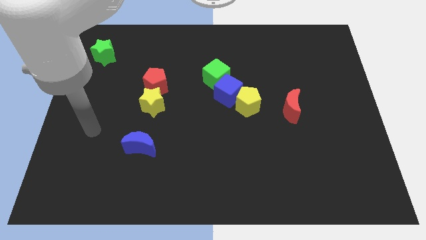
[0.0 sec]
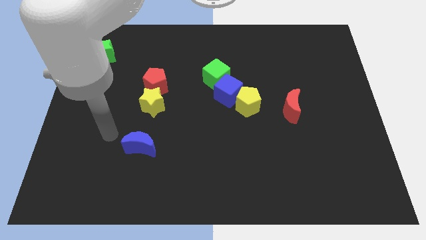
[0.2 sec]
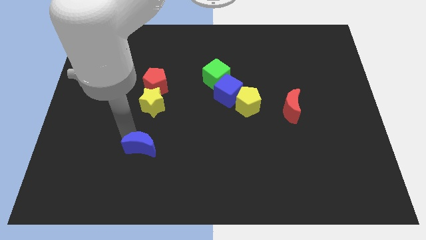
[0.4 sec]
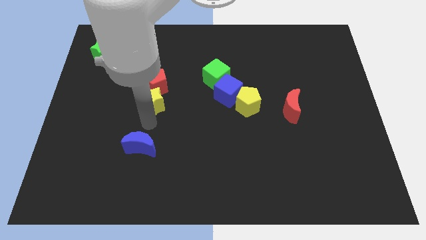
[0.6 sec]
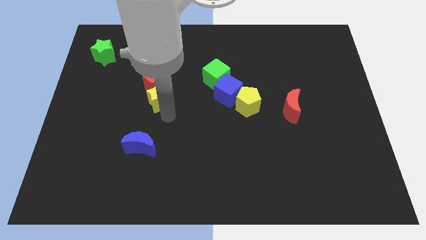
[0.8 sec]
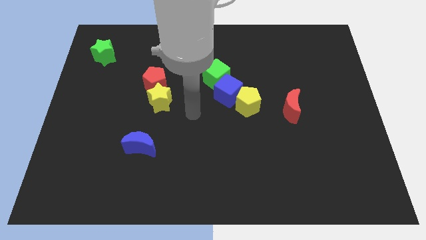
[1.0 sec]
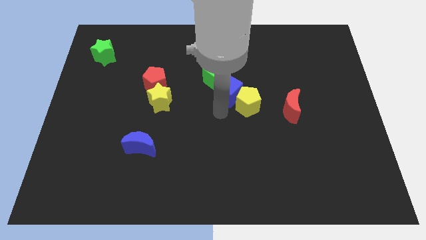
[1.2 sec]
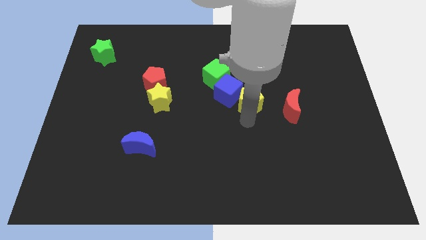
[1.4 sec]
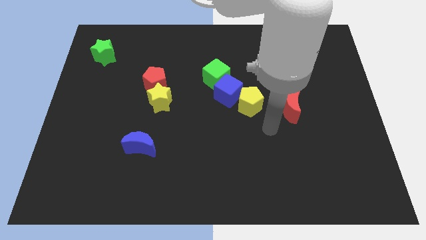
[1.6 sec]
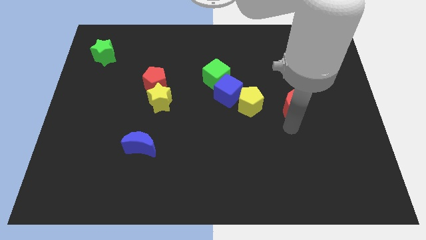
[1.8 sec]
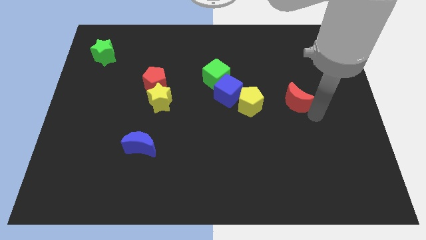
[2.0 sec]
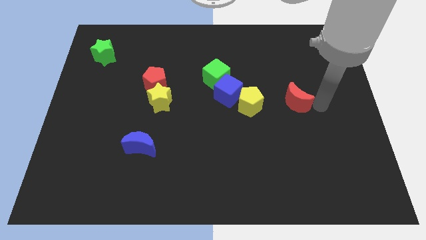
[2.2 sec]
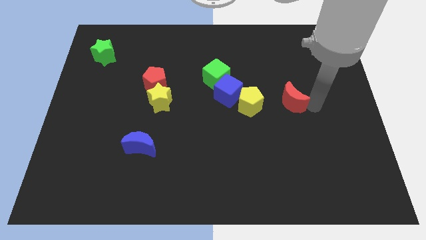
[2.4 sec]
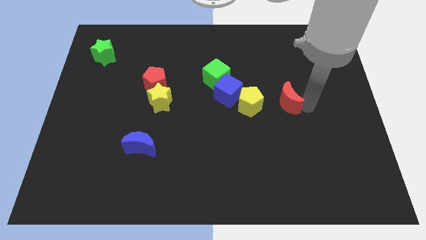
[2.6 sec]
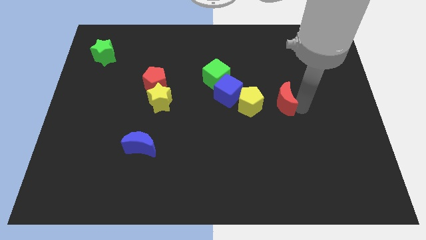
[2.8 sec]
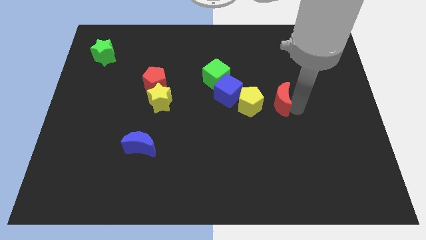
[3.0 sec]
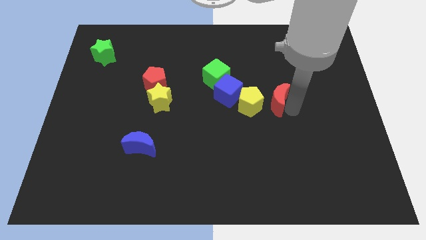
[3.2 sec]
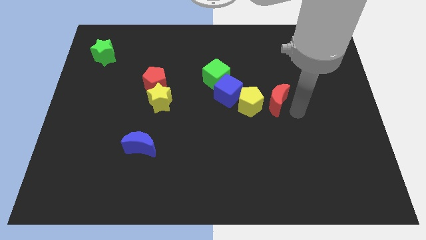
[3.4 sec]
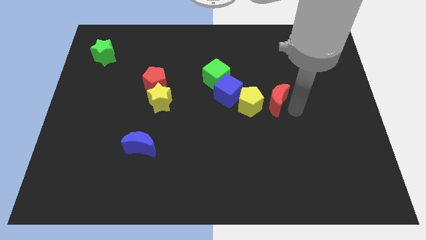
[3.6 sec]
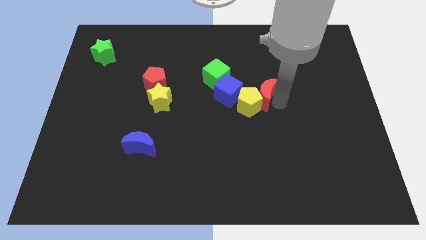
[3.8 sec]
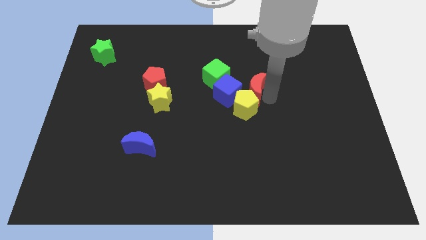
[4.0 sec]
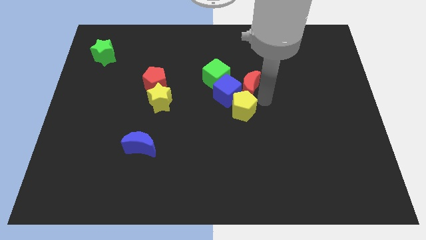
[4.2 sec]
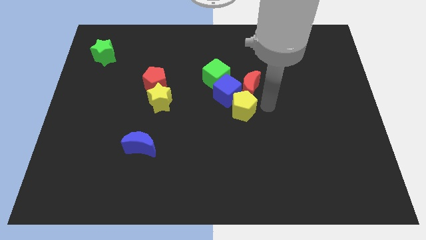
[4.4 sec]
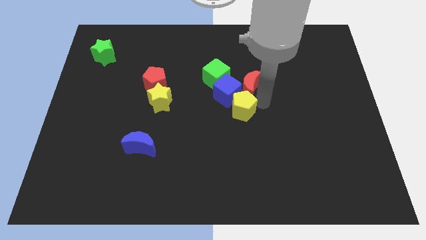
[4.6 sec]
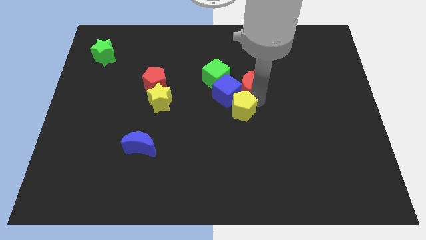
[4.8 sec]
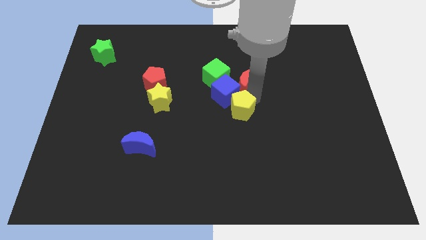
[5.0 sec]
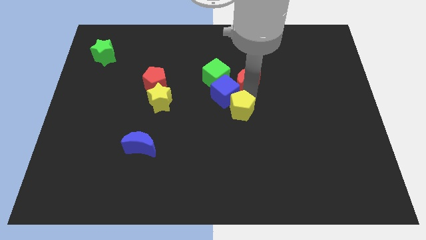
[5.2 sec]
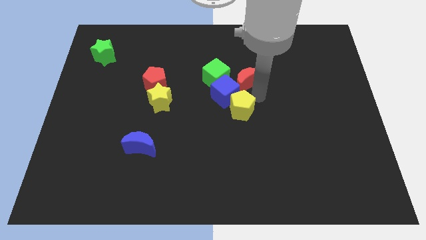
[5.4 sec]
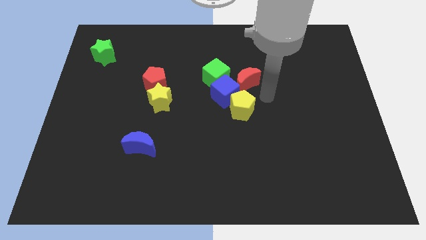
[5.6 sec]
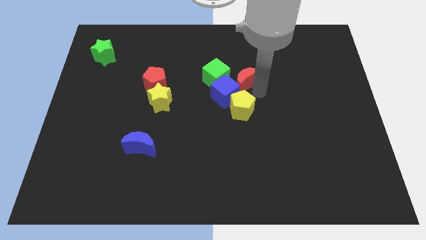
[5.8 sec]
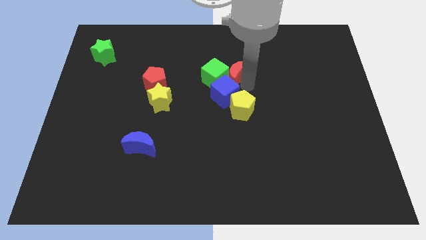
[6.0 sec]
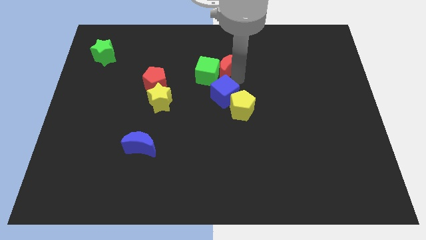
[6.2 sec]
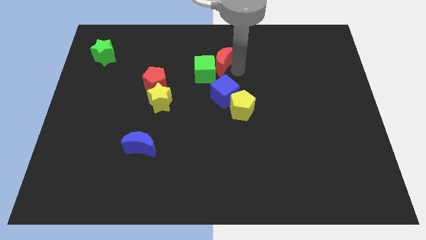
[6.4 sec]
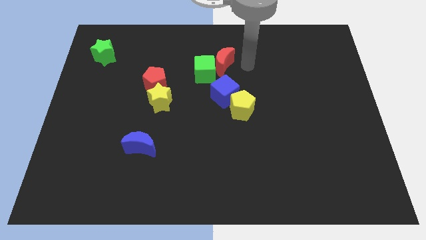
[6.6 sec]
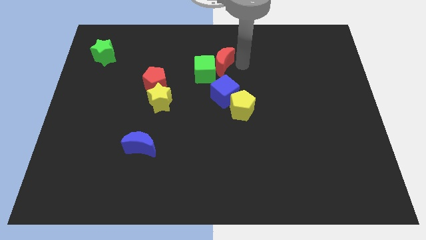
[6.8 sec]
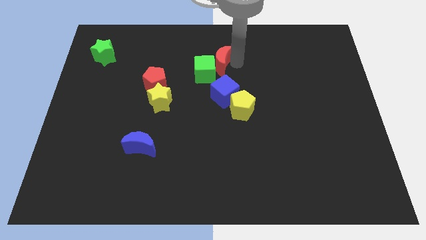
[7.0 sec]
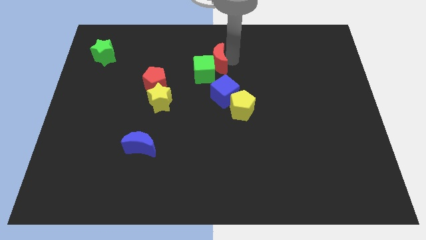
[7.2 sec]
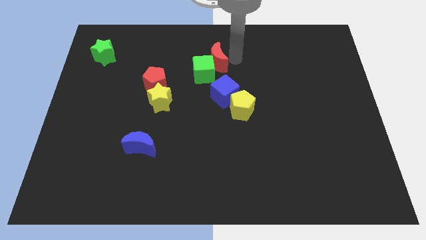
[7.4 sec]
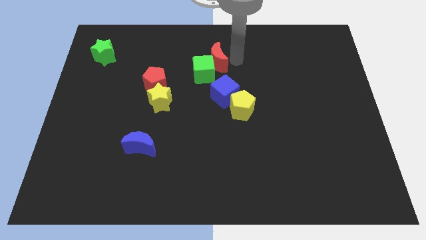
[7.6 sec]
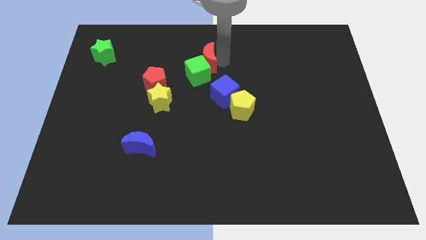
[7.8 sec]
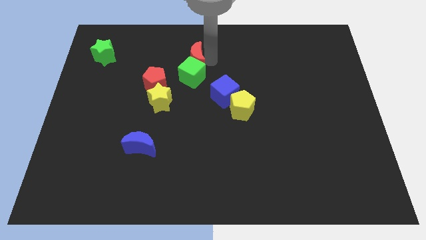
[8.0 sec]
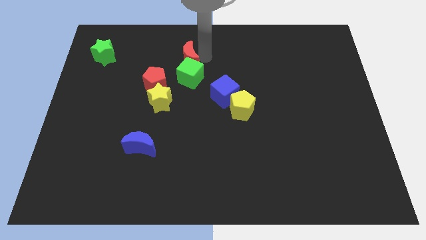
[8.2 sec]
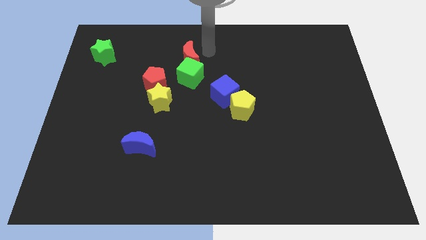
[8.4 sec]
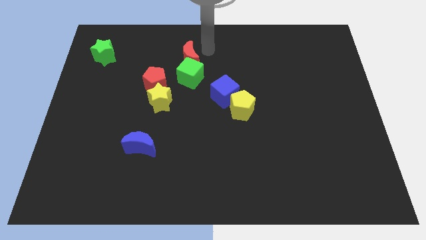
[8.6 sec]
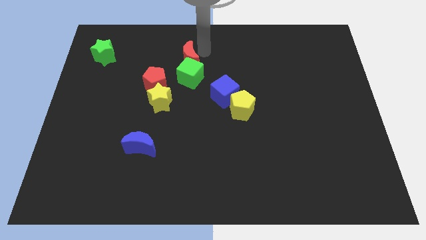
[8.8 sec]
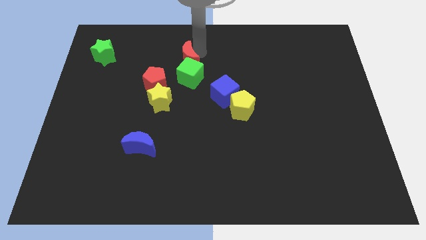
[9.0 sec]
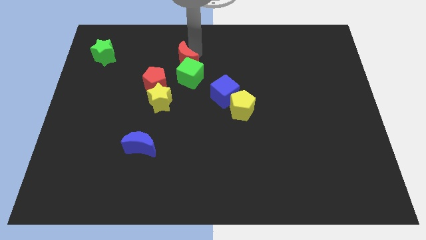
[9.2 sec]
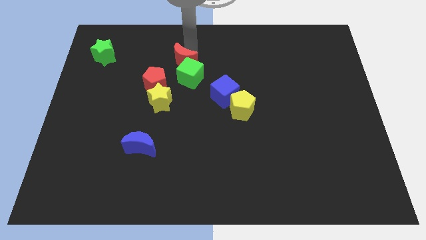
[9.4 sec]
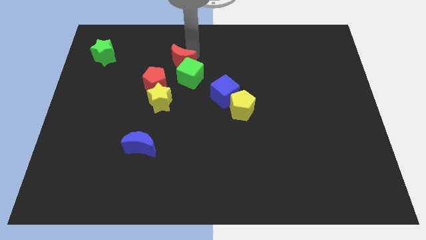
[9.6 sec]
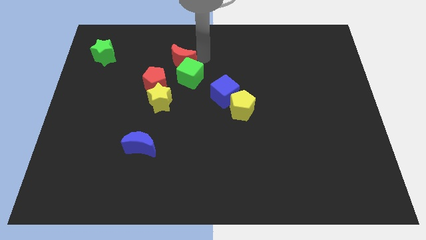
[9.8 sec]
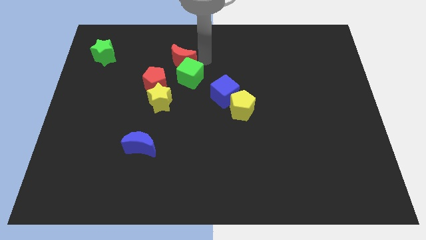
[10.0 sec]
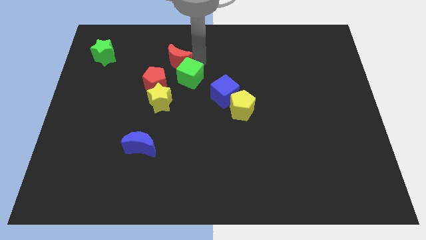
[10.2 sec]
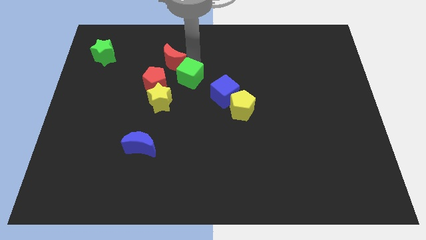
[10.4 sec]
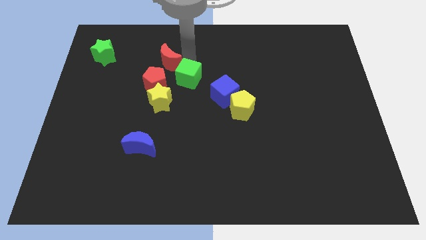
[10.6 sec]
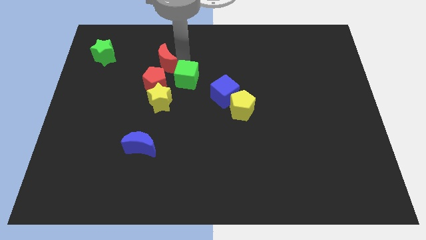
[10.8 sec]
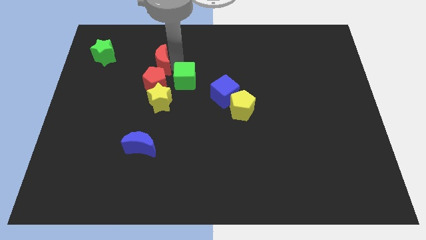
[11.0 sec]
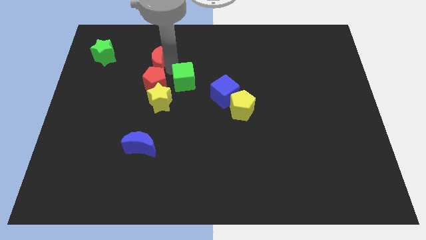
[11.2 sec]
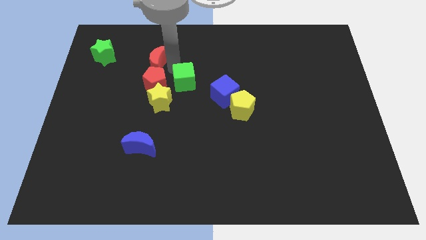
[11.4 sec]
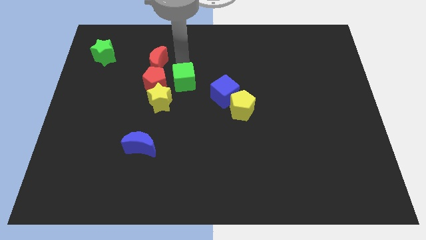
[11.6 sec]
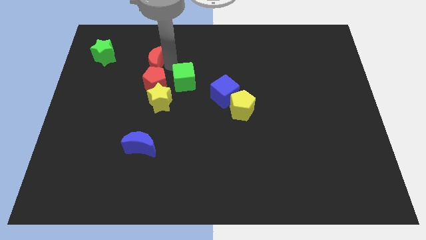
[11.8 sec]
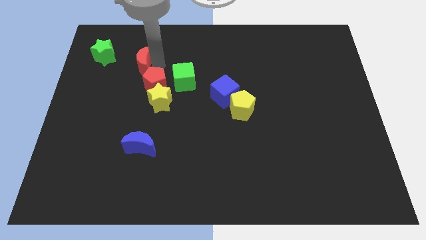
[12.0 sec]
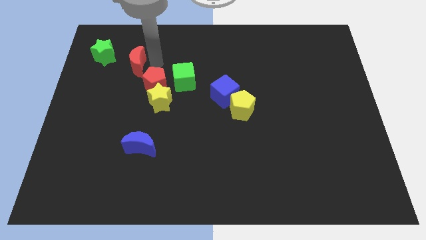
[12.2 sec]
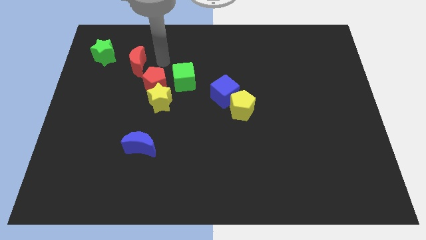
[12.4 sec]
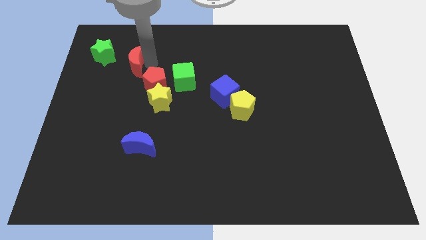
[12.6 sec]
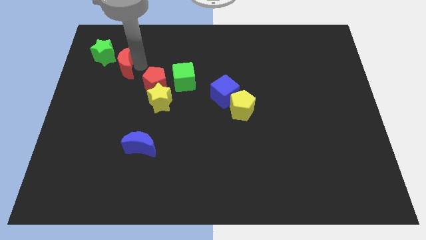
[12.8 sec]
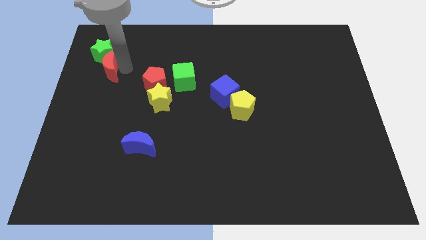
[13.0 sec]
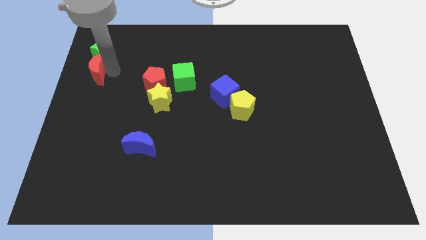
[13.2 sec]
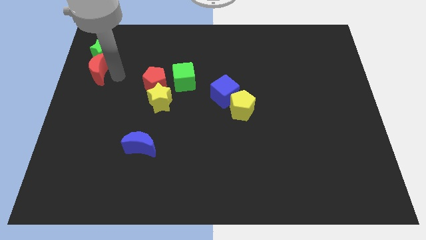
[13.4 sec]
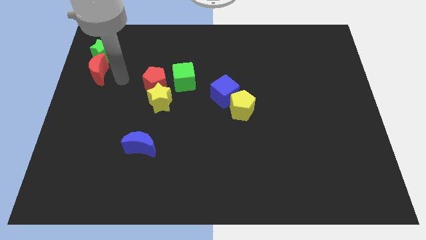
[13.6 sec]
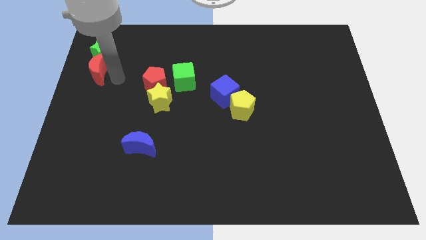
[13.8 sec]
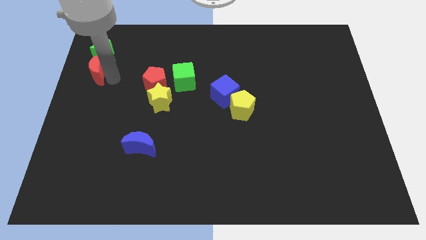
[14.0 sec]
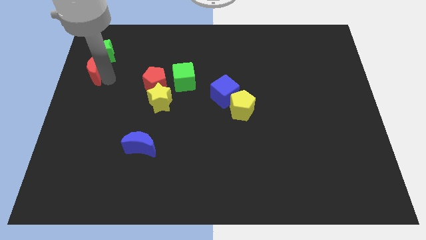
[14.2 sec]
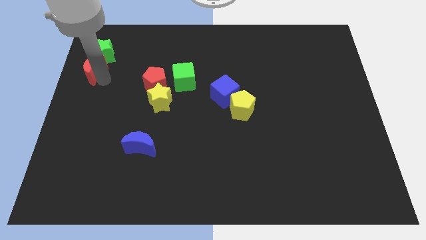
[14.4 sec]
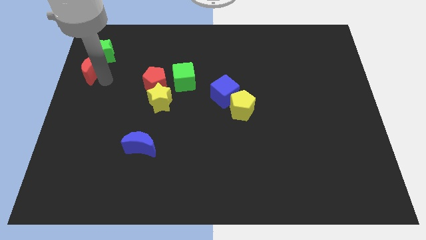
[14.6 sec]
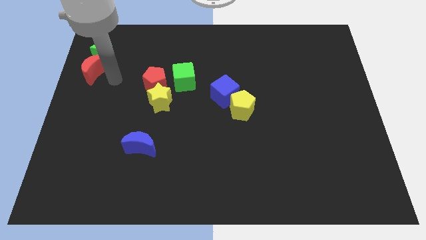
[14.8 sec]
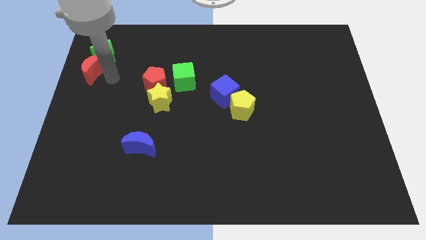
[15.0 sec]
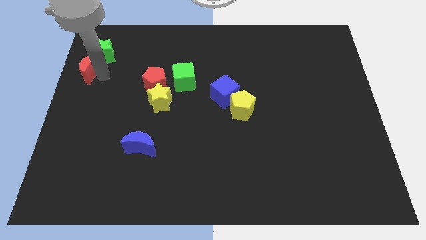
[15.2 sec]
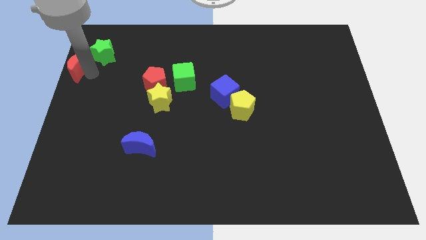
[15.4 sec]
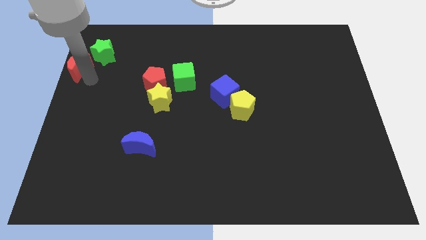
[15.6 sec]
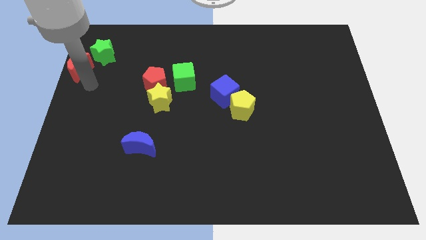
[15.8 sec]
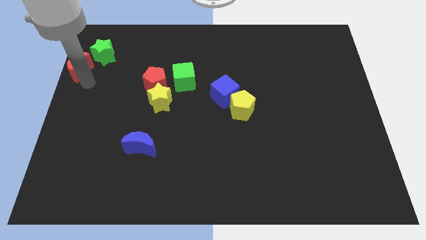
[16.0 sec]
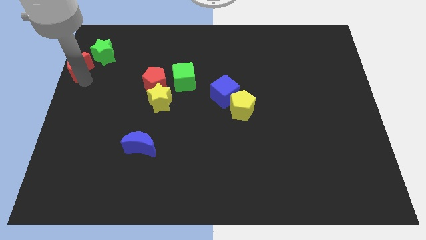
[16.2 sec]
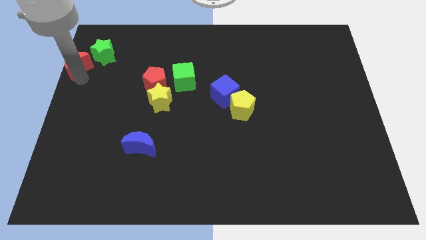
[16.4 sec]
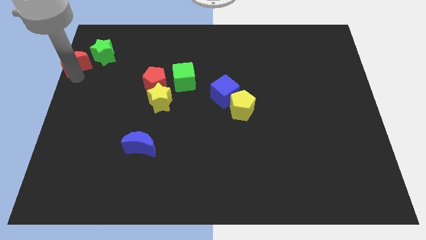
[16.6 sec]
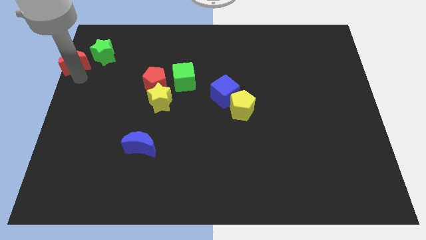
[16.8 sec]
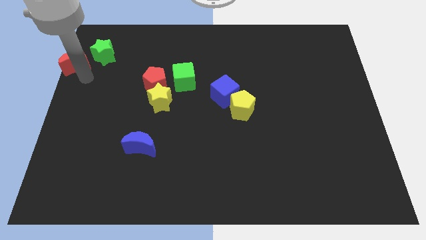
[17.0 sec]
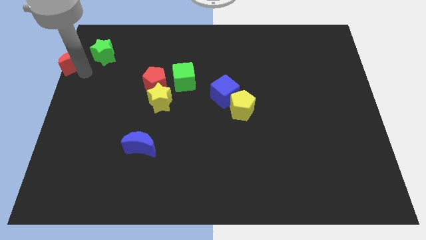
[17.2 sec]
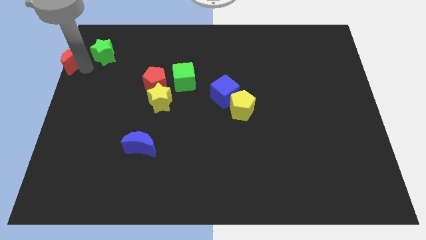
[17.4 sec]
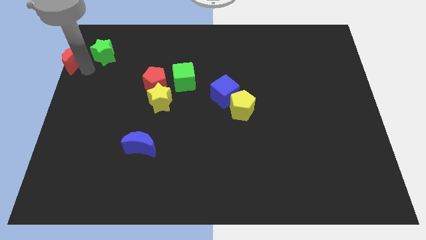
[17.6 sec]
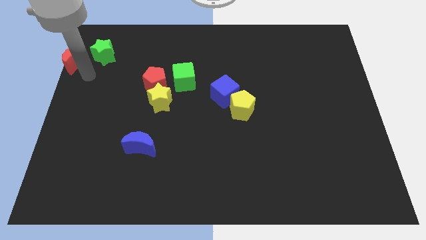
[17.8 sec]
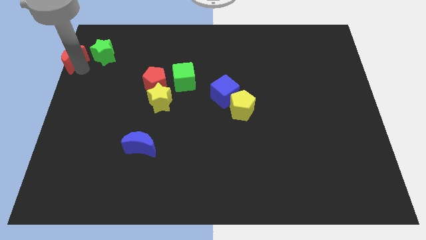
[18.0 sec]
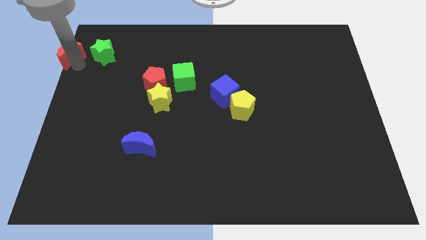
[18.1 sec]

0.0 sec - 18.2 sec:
put the red moon to the upper left corner
